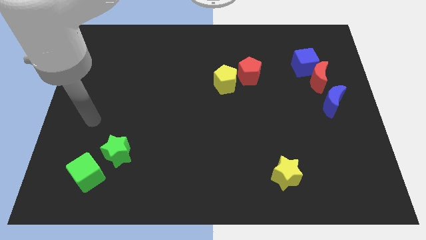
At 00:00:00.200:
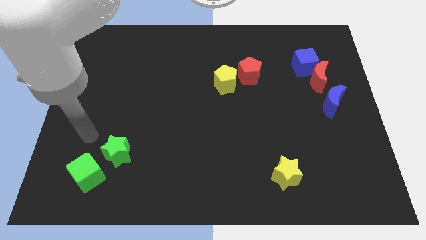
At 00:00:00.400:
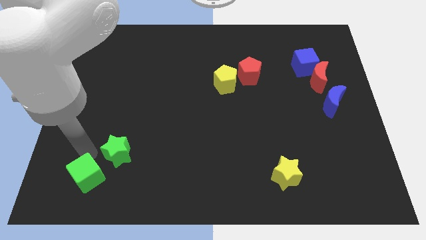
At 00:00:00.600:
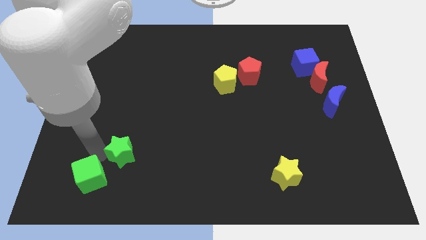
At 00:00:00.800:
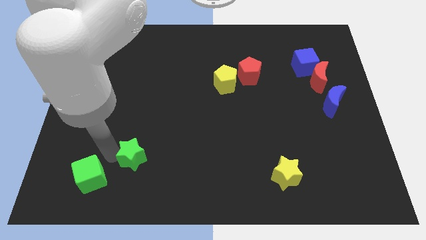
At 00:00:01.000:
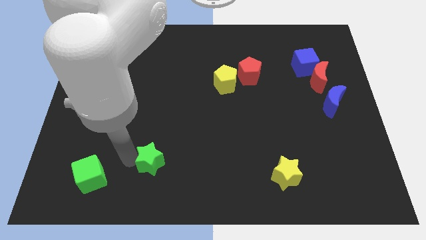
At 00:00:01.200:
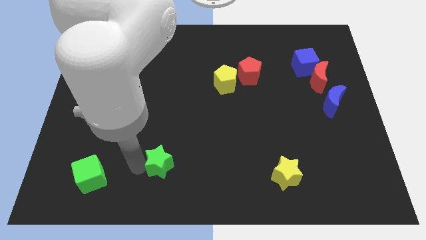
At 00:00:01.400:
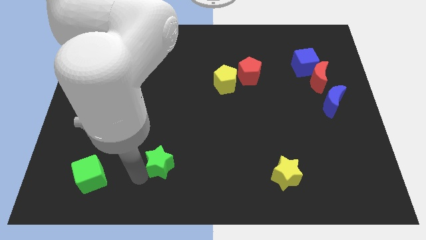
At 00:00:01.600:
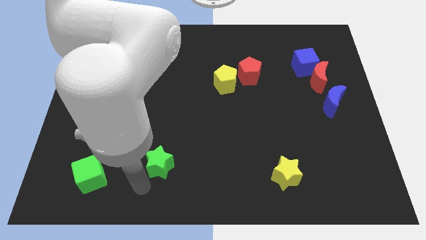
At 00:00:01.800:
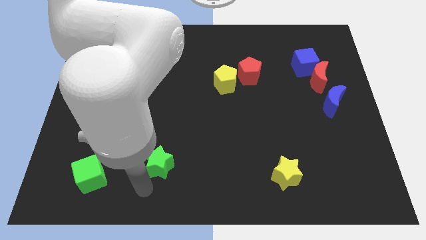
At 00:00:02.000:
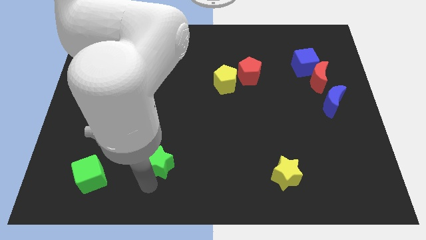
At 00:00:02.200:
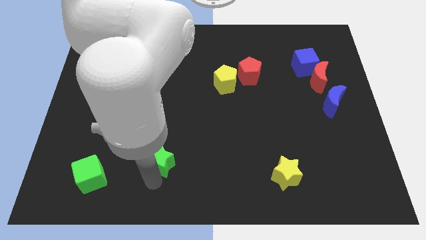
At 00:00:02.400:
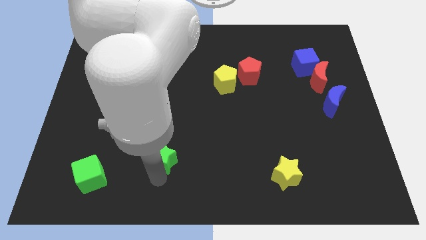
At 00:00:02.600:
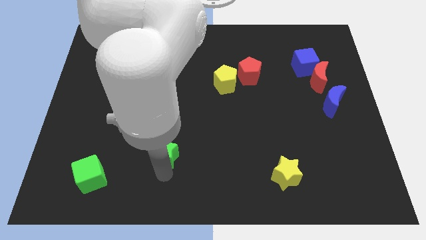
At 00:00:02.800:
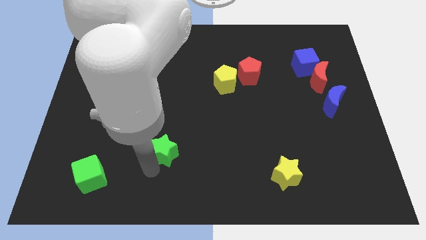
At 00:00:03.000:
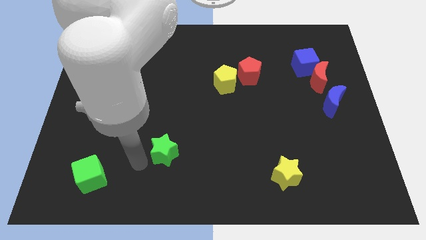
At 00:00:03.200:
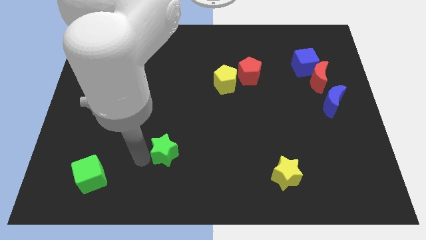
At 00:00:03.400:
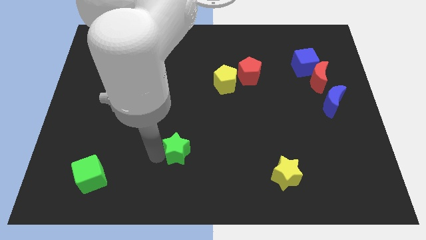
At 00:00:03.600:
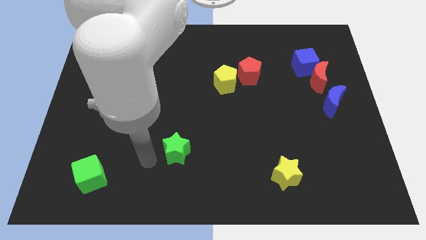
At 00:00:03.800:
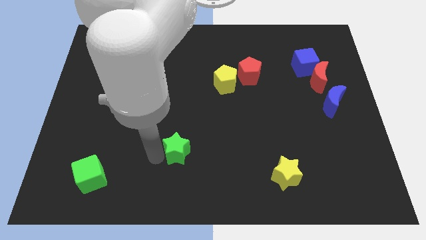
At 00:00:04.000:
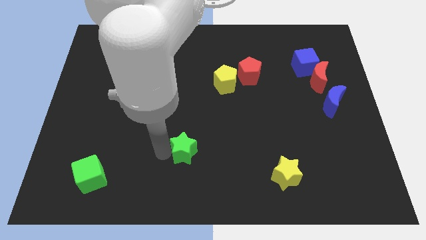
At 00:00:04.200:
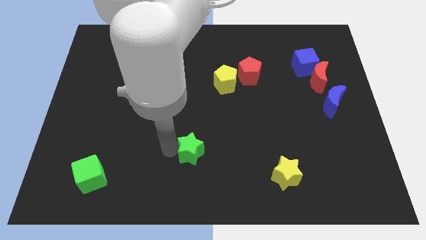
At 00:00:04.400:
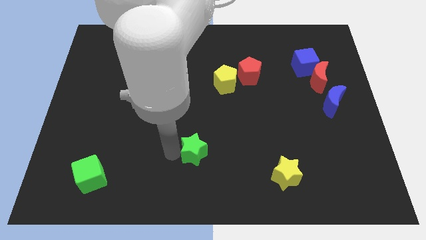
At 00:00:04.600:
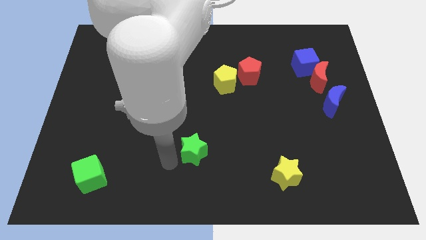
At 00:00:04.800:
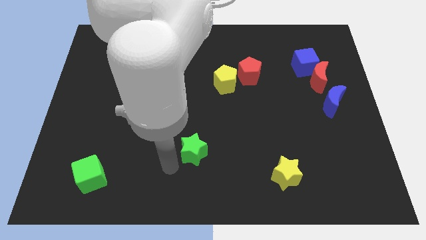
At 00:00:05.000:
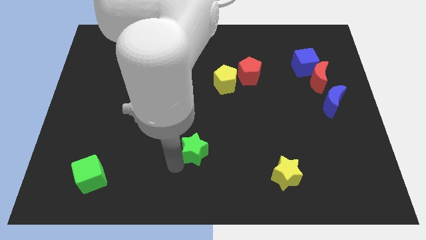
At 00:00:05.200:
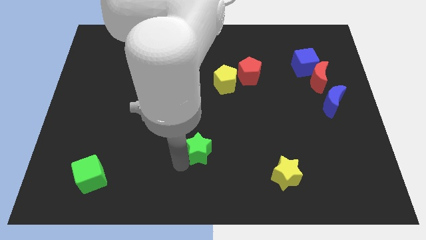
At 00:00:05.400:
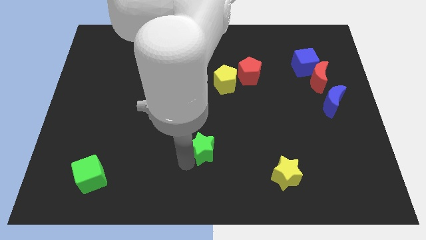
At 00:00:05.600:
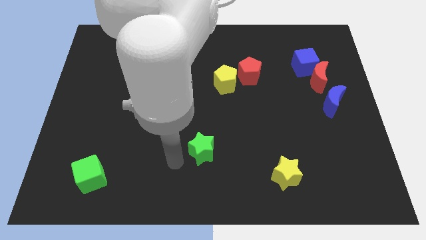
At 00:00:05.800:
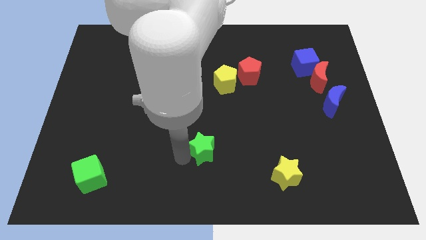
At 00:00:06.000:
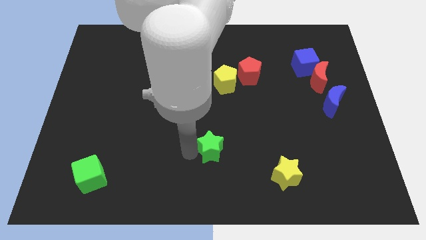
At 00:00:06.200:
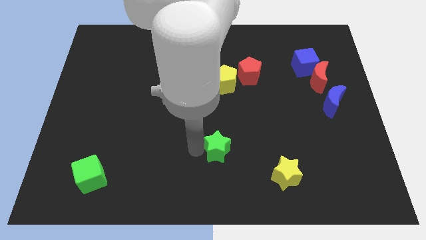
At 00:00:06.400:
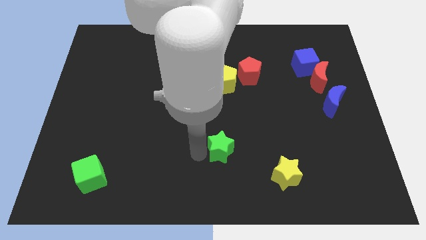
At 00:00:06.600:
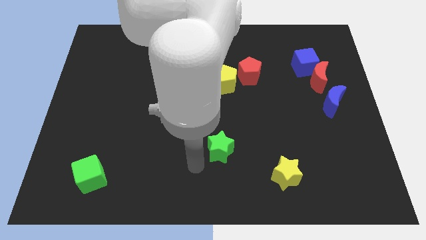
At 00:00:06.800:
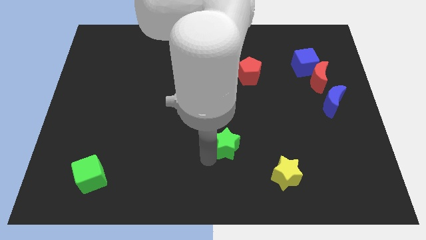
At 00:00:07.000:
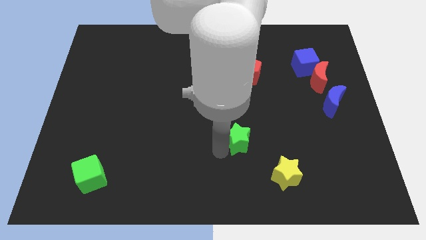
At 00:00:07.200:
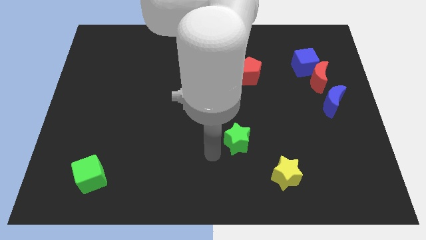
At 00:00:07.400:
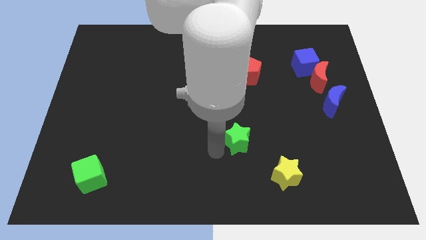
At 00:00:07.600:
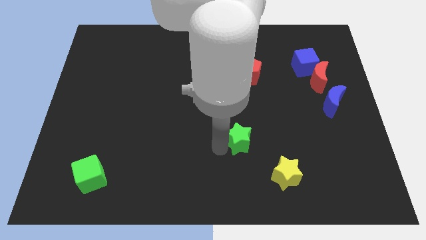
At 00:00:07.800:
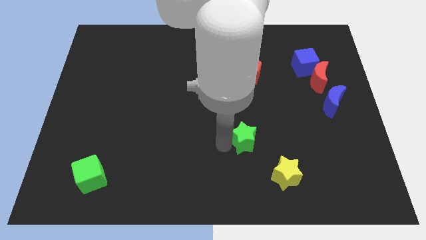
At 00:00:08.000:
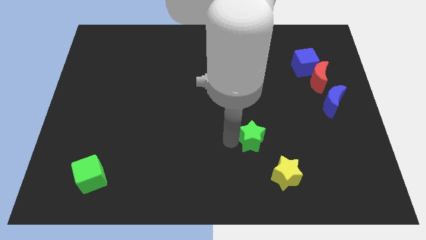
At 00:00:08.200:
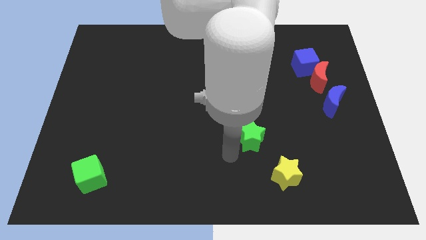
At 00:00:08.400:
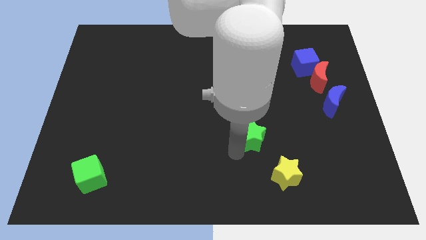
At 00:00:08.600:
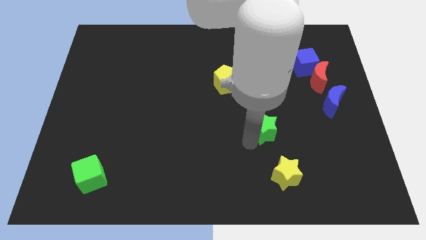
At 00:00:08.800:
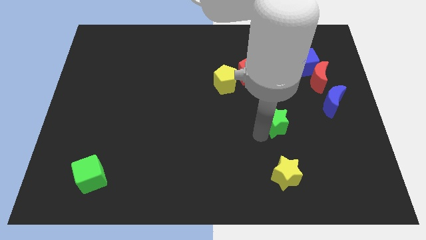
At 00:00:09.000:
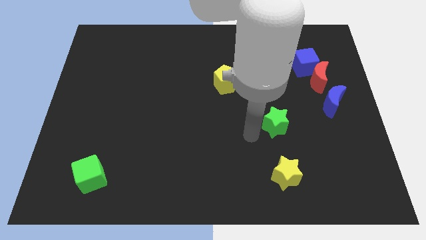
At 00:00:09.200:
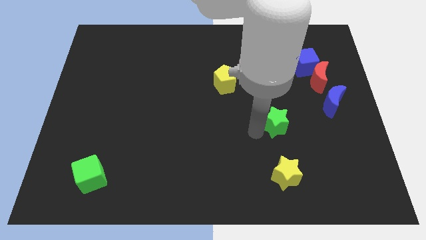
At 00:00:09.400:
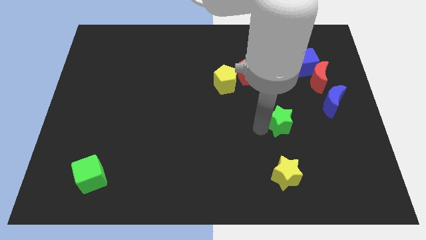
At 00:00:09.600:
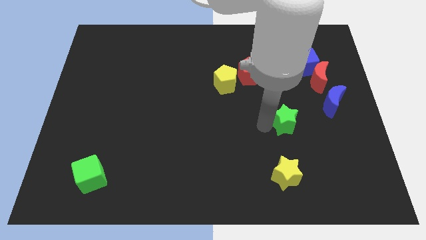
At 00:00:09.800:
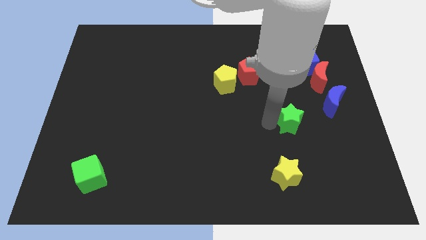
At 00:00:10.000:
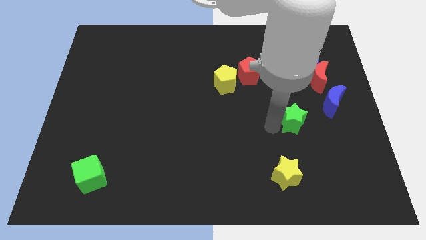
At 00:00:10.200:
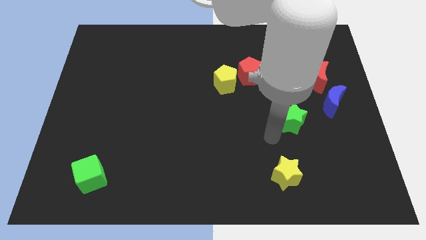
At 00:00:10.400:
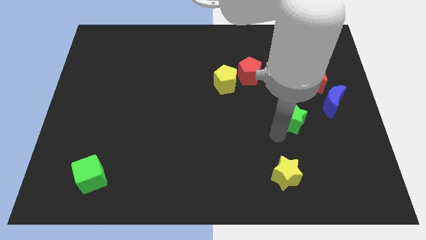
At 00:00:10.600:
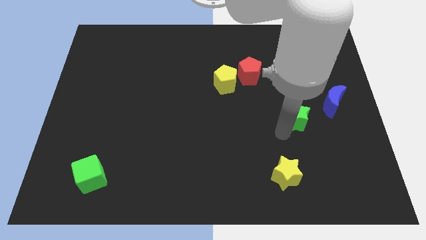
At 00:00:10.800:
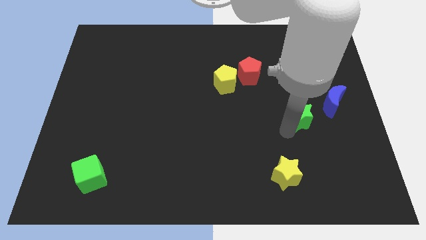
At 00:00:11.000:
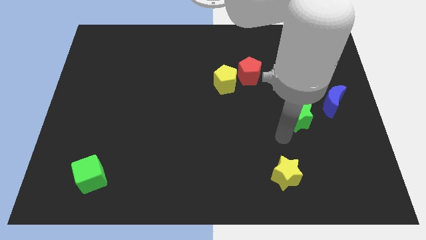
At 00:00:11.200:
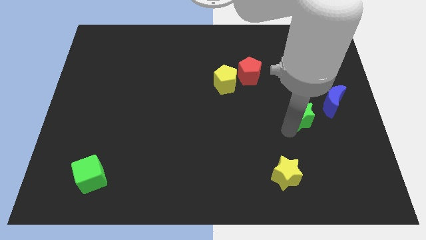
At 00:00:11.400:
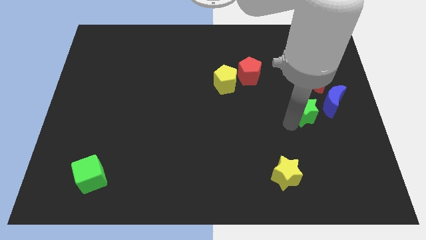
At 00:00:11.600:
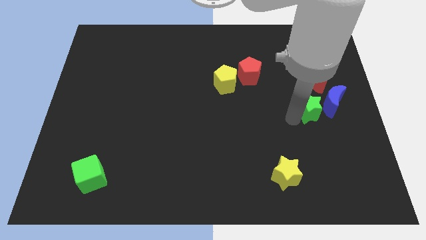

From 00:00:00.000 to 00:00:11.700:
slide the green star close to the blue moon

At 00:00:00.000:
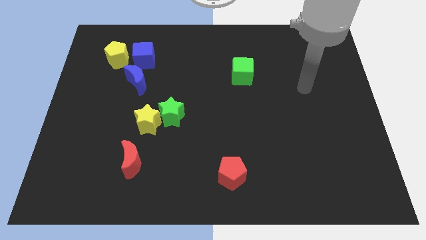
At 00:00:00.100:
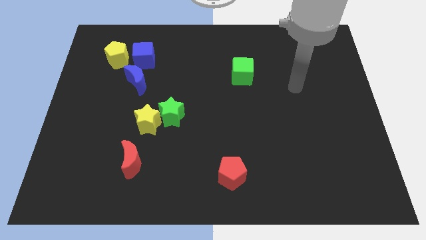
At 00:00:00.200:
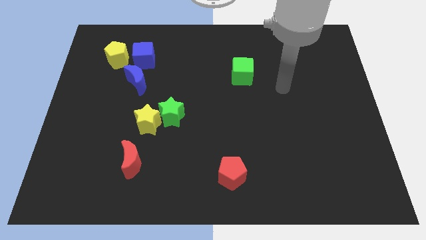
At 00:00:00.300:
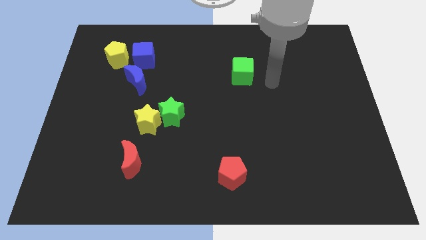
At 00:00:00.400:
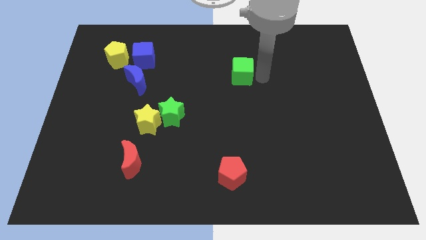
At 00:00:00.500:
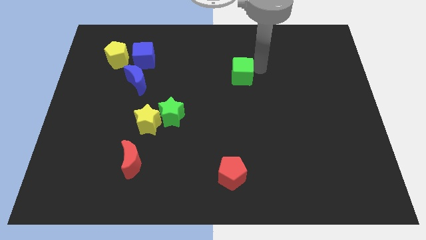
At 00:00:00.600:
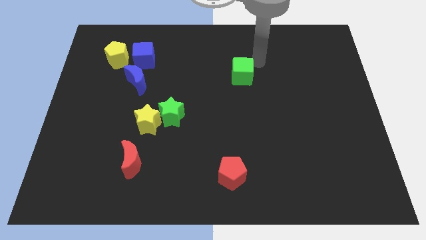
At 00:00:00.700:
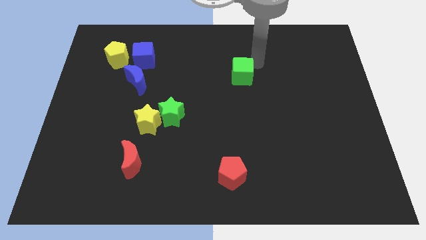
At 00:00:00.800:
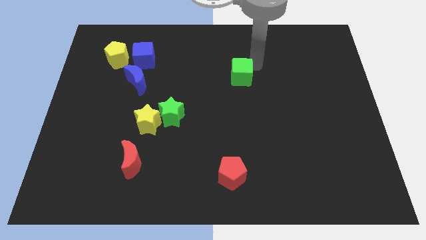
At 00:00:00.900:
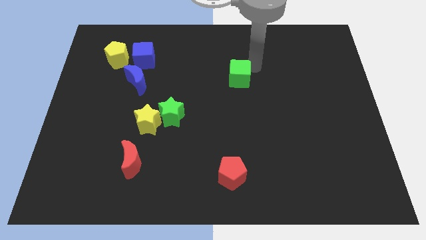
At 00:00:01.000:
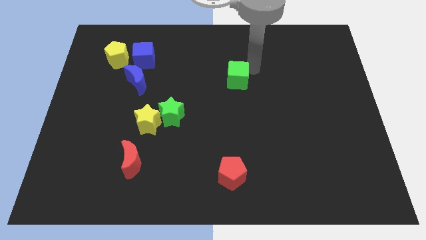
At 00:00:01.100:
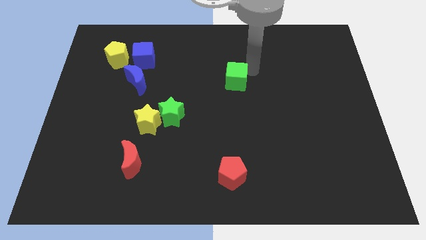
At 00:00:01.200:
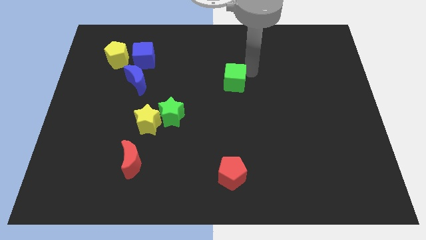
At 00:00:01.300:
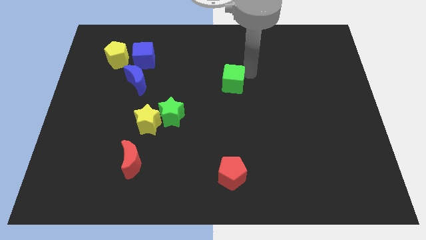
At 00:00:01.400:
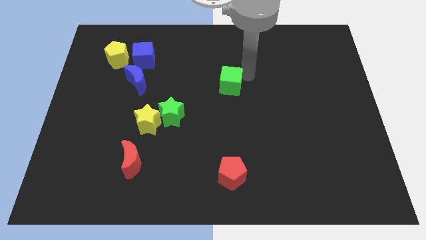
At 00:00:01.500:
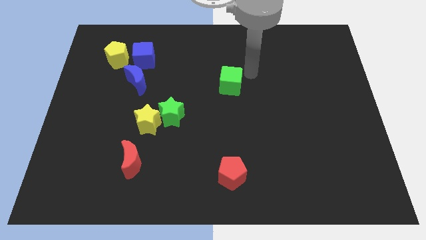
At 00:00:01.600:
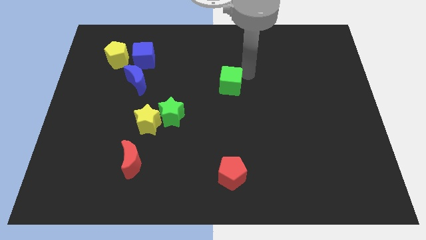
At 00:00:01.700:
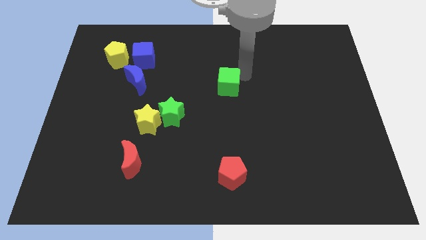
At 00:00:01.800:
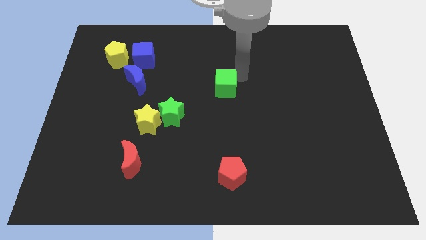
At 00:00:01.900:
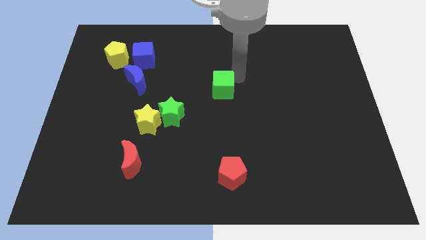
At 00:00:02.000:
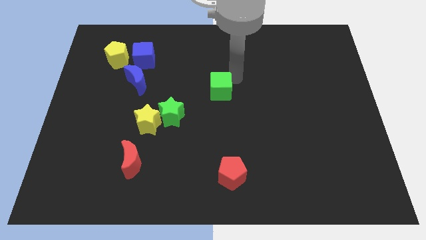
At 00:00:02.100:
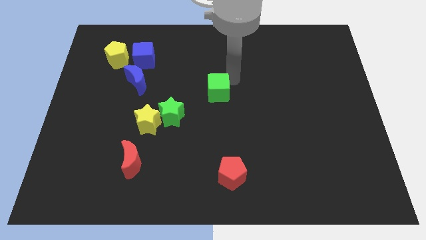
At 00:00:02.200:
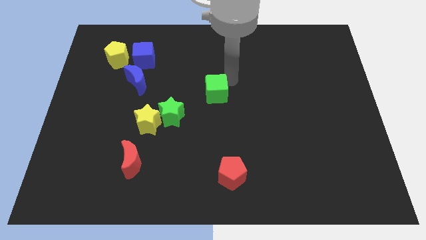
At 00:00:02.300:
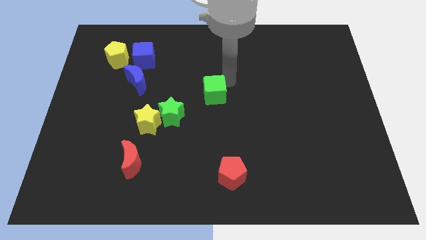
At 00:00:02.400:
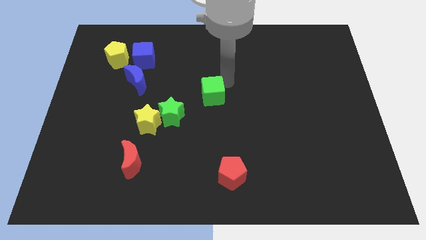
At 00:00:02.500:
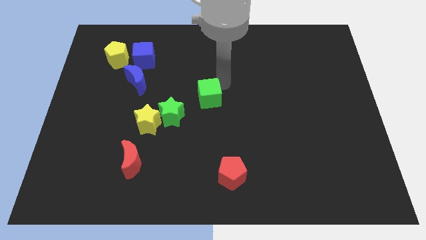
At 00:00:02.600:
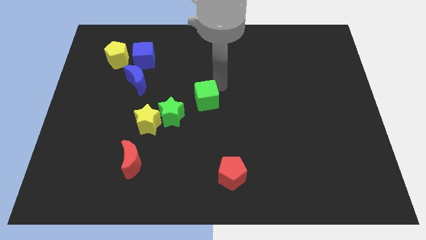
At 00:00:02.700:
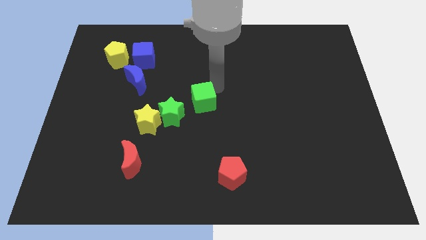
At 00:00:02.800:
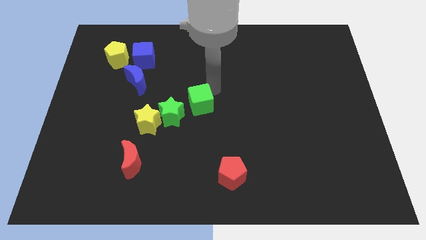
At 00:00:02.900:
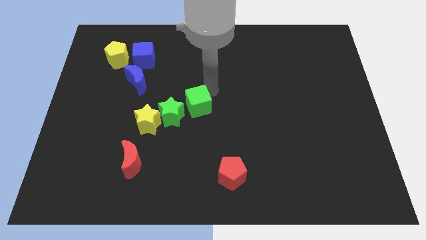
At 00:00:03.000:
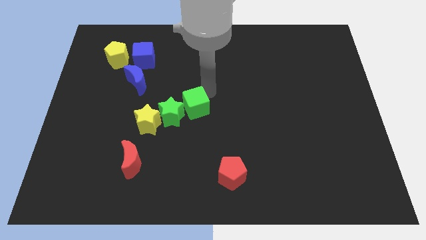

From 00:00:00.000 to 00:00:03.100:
slide the green cube close to the green star
